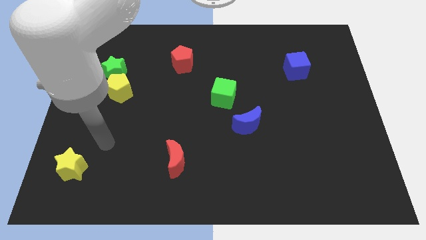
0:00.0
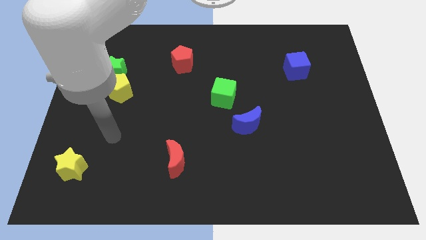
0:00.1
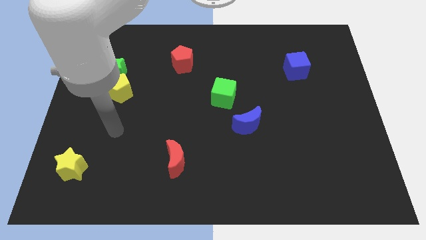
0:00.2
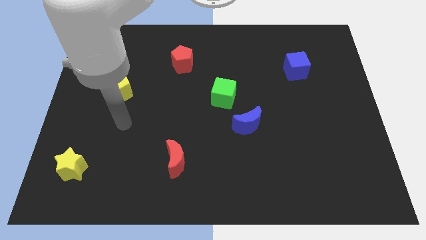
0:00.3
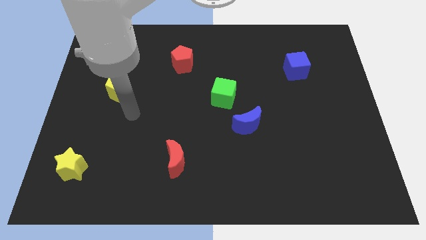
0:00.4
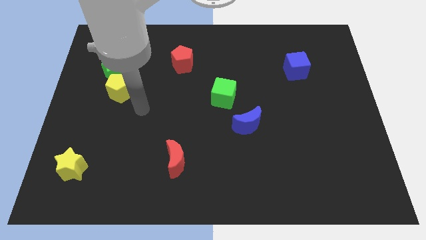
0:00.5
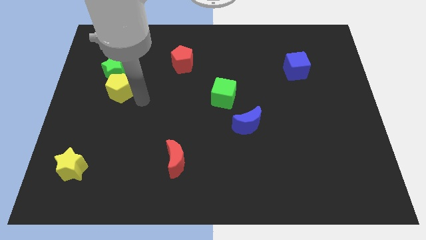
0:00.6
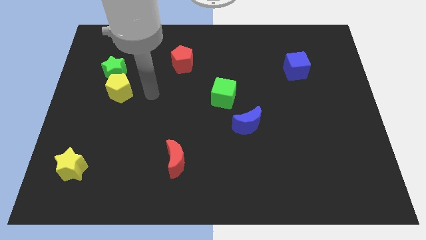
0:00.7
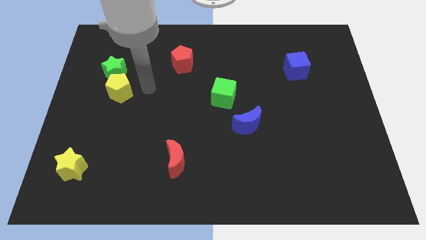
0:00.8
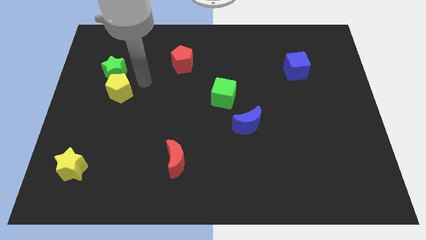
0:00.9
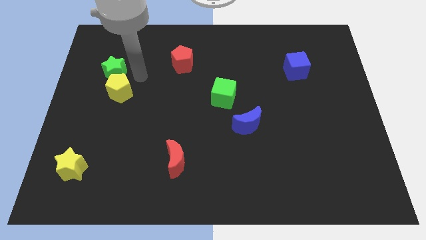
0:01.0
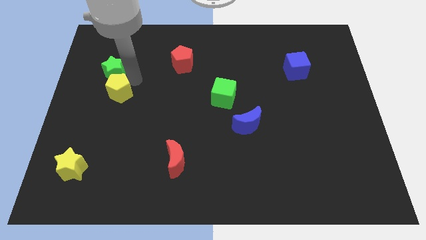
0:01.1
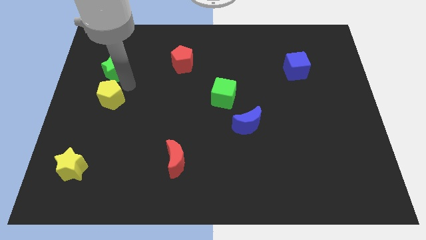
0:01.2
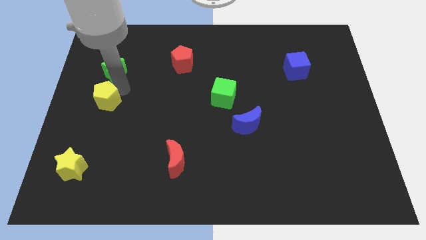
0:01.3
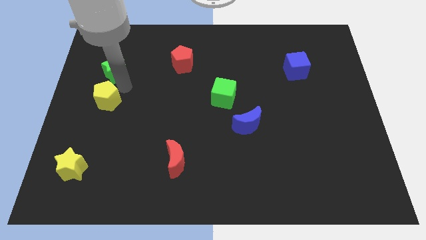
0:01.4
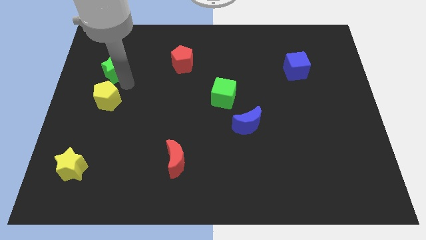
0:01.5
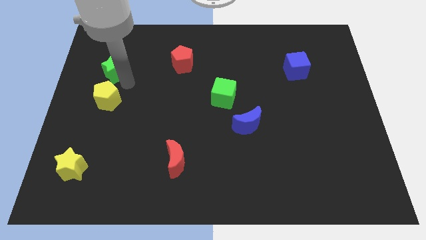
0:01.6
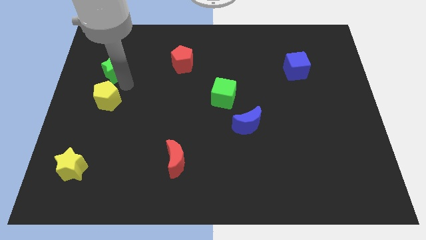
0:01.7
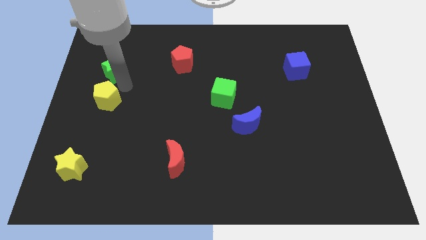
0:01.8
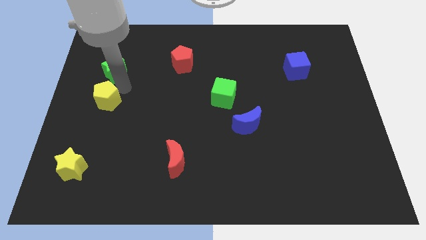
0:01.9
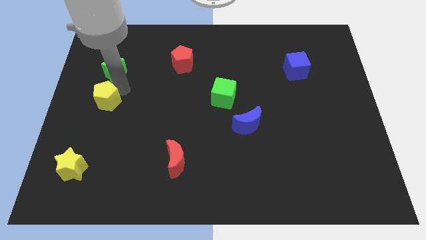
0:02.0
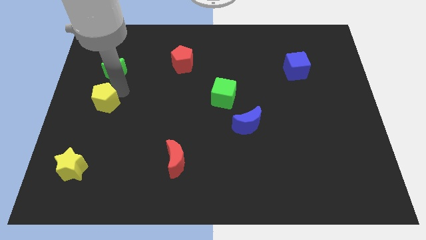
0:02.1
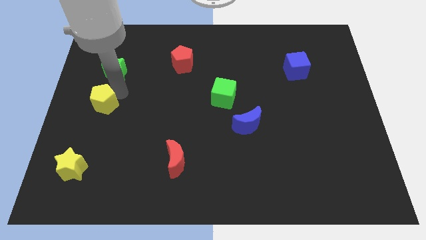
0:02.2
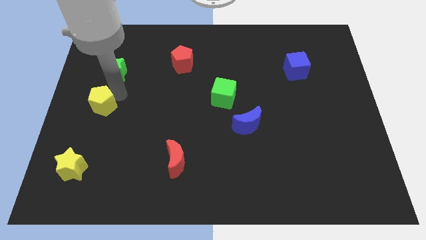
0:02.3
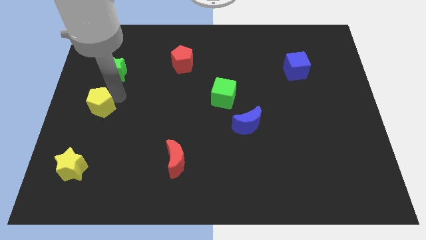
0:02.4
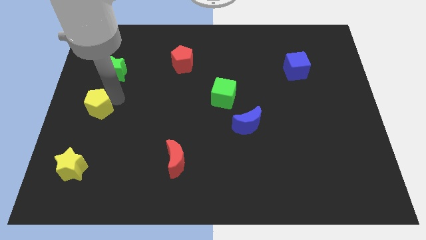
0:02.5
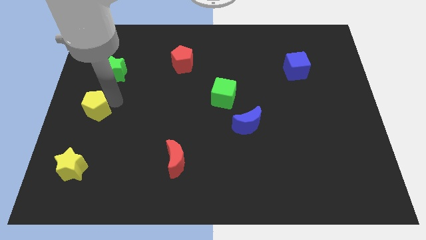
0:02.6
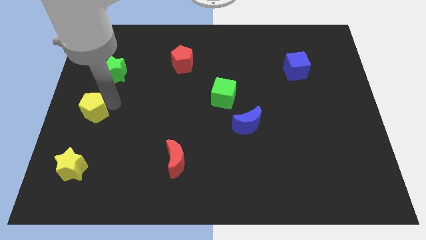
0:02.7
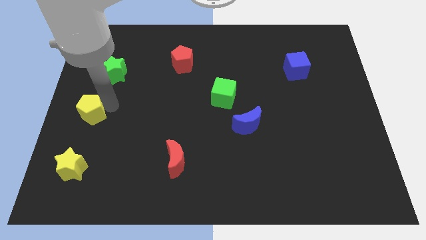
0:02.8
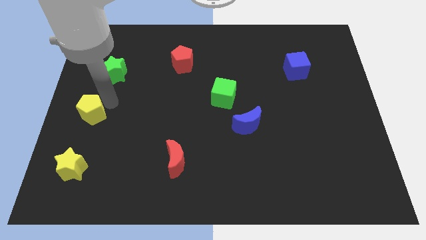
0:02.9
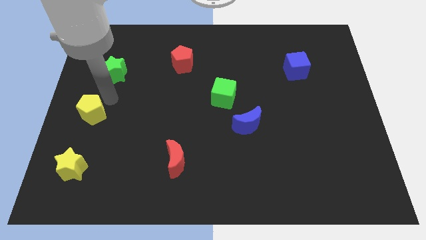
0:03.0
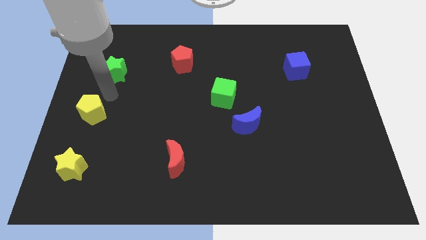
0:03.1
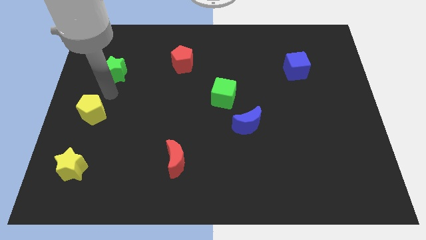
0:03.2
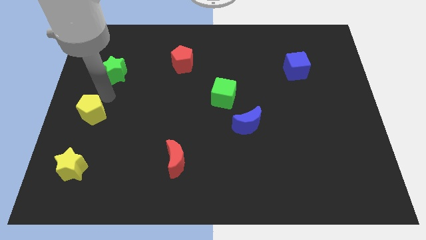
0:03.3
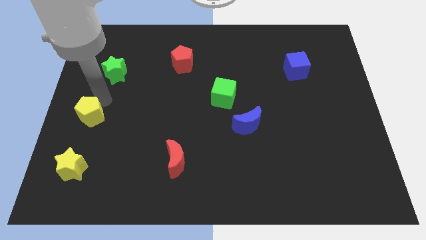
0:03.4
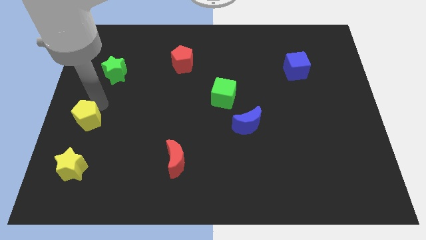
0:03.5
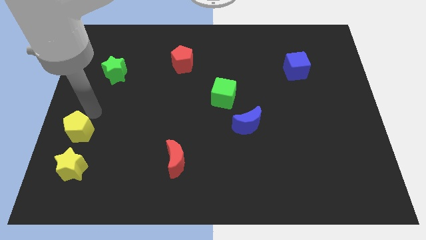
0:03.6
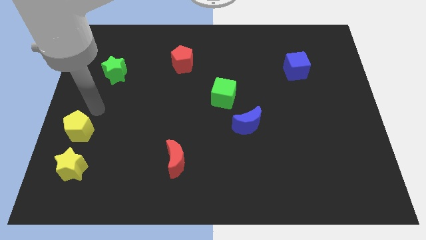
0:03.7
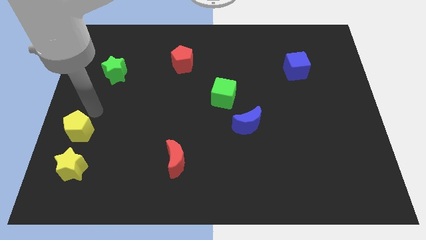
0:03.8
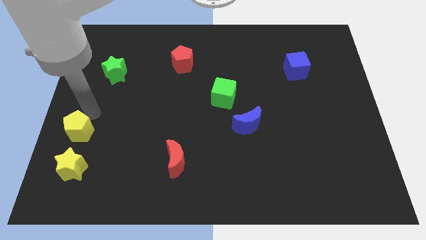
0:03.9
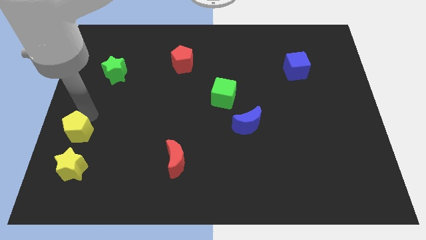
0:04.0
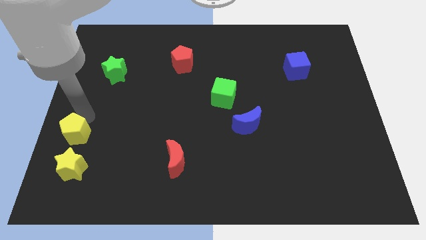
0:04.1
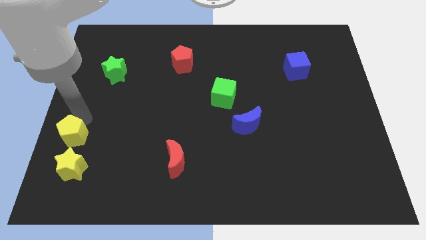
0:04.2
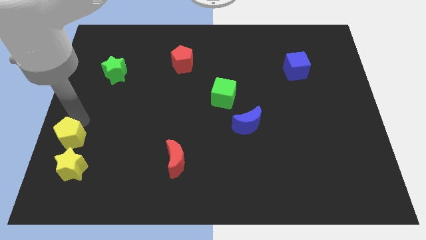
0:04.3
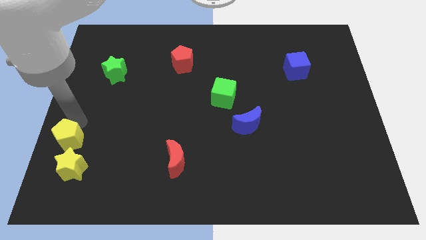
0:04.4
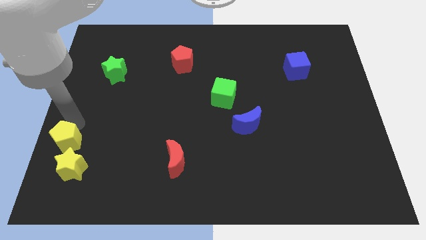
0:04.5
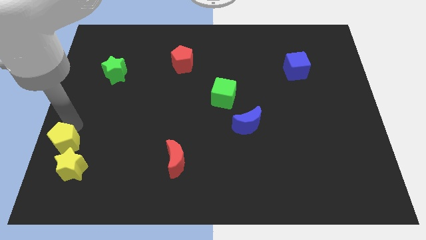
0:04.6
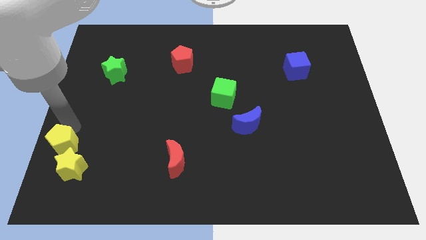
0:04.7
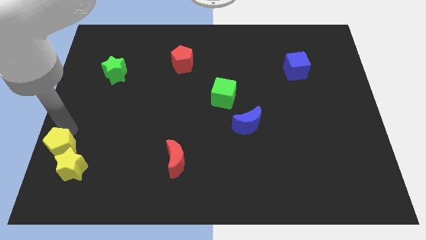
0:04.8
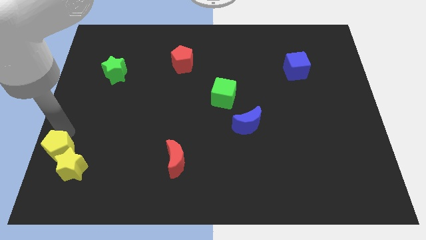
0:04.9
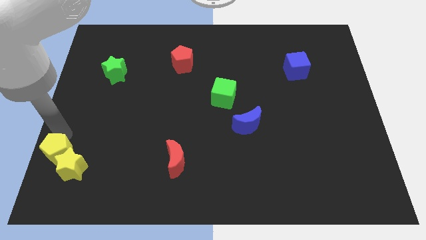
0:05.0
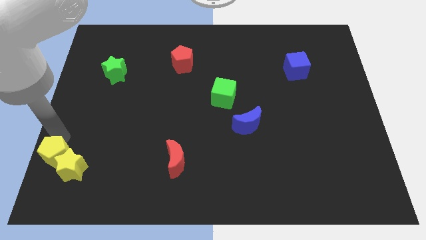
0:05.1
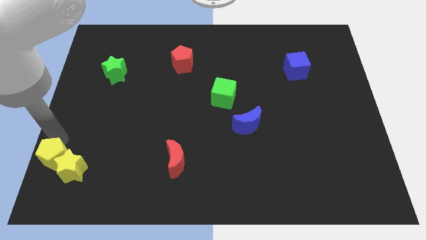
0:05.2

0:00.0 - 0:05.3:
move the yellow pentagon to the bottom left corner

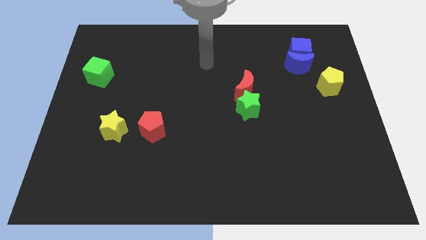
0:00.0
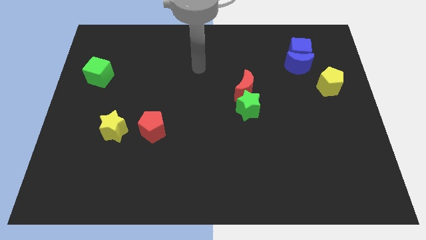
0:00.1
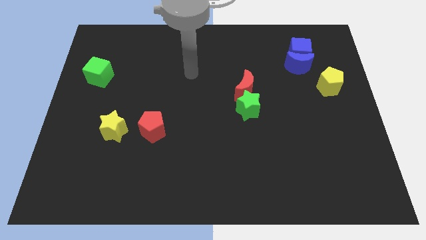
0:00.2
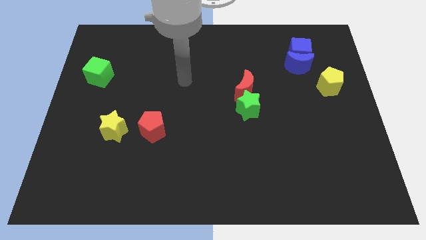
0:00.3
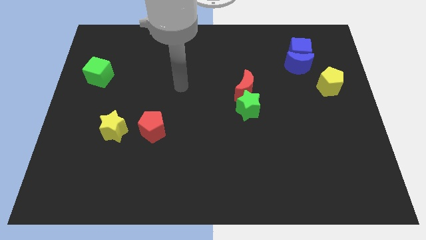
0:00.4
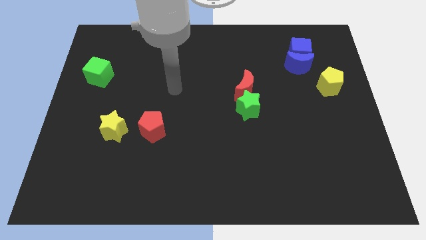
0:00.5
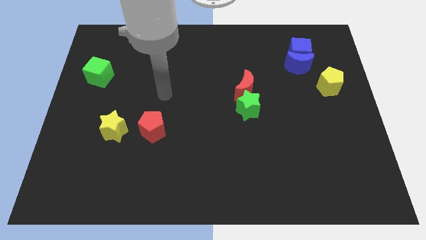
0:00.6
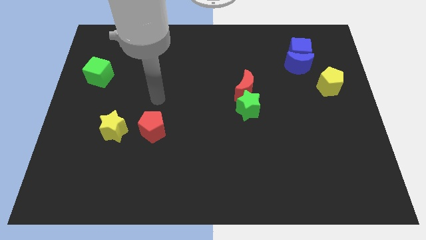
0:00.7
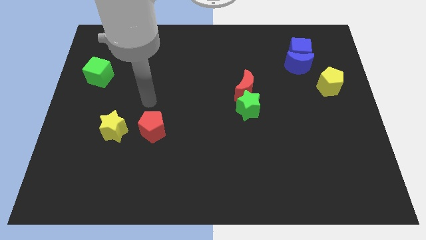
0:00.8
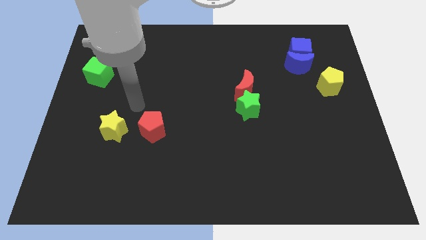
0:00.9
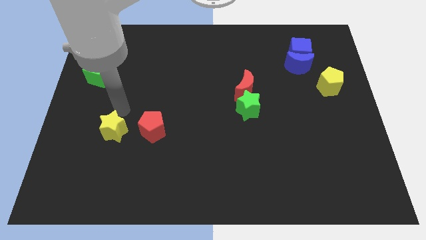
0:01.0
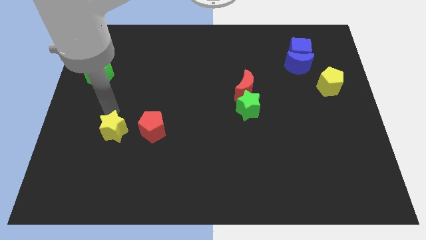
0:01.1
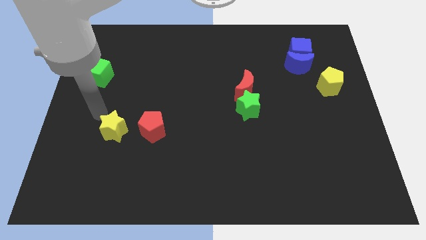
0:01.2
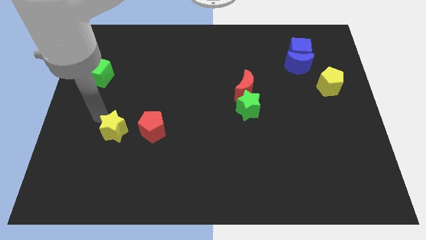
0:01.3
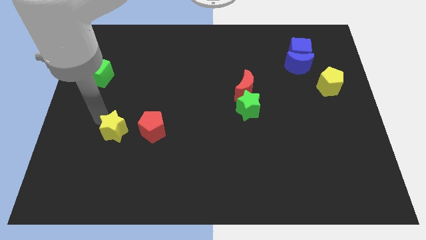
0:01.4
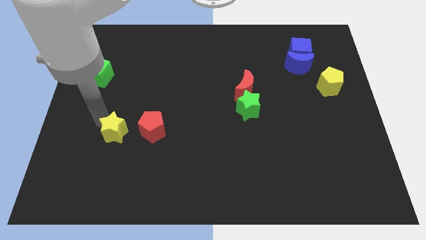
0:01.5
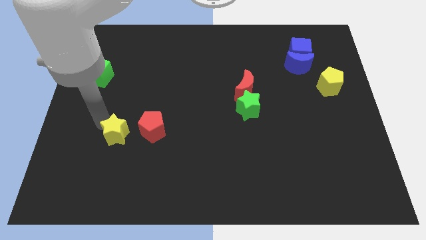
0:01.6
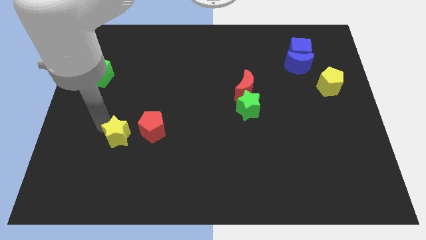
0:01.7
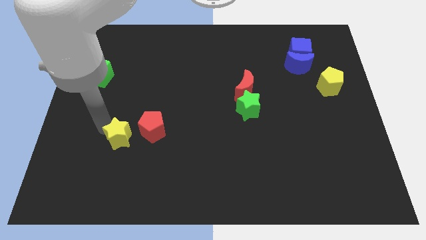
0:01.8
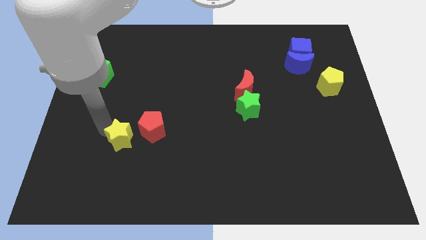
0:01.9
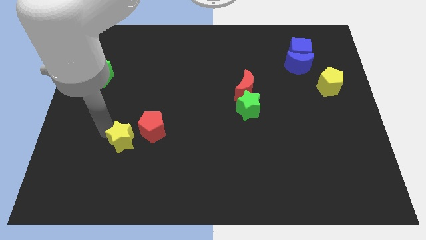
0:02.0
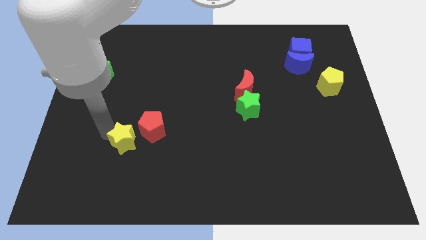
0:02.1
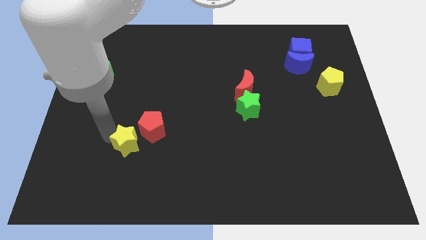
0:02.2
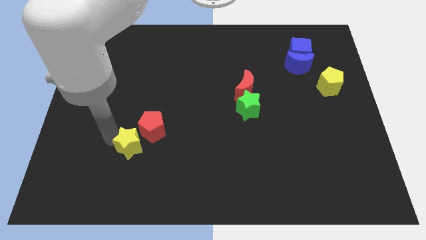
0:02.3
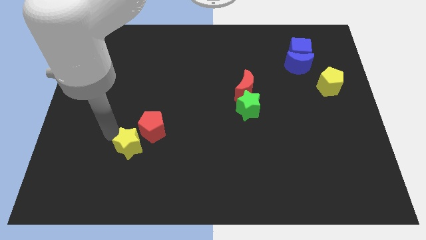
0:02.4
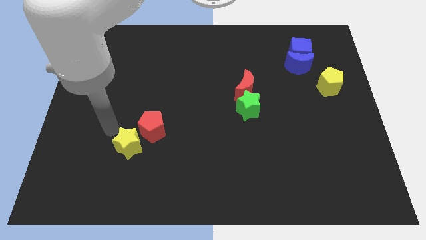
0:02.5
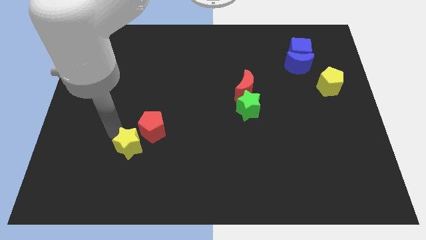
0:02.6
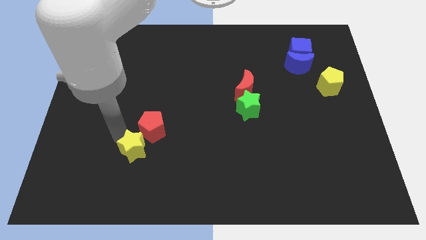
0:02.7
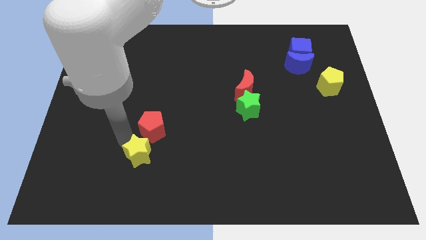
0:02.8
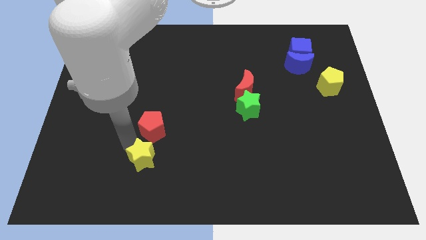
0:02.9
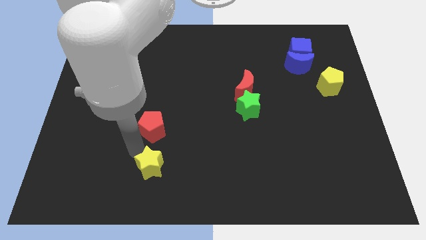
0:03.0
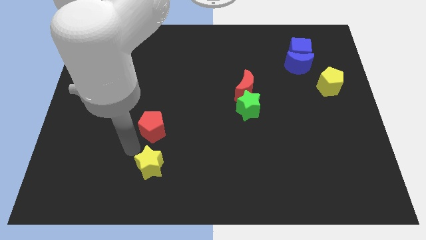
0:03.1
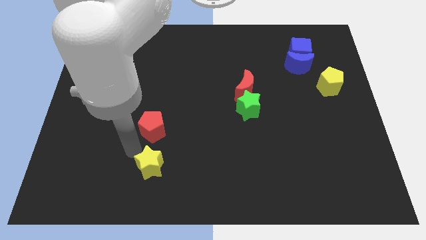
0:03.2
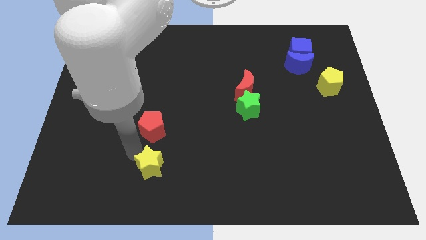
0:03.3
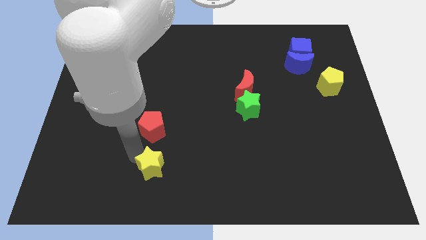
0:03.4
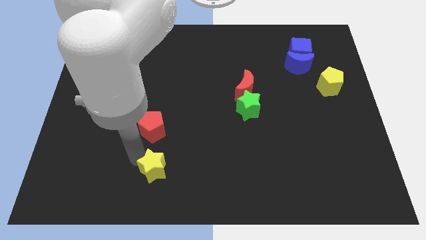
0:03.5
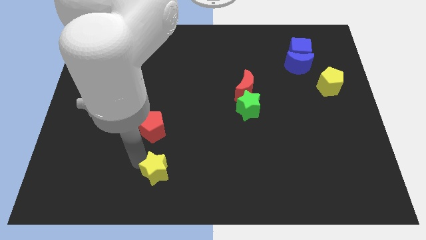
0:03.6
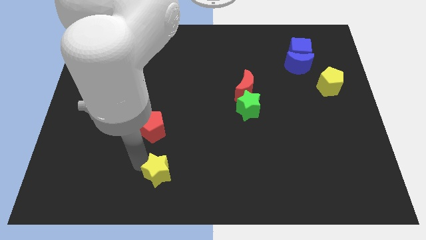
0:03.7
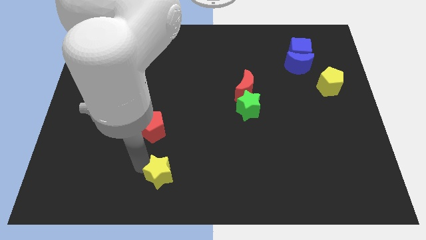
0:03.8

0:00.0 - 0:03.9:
push the yellow star to the bottom side
